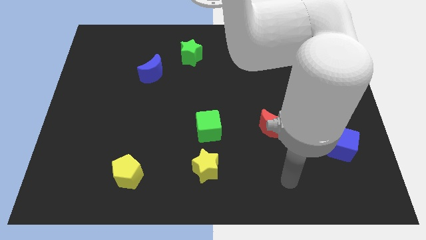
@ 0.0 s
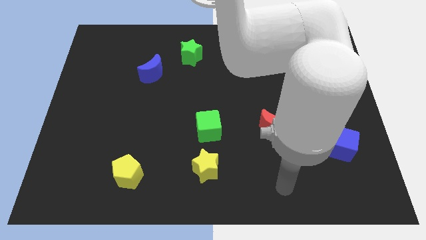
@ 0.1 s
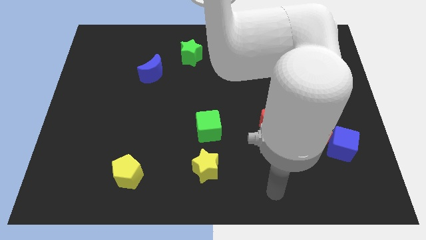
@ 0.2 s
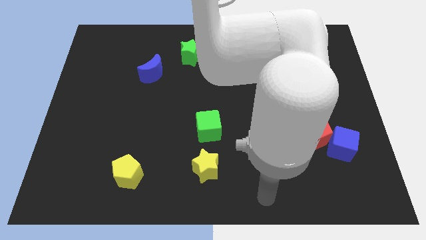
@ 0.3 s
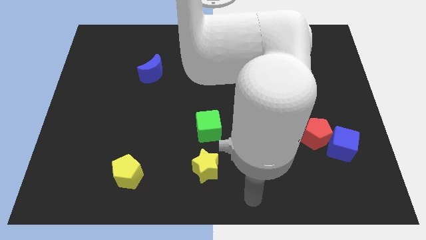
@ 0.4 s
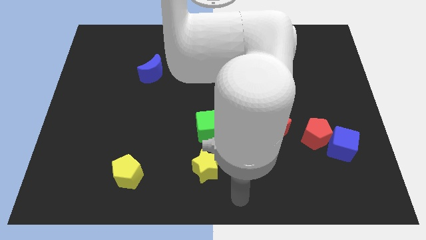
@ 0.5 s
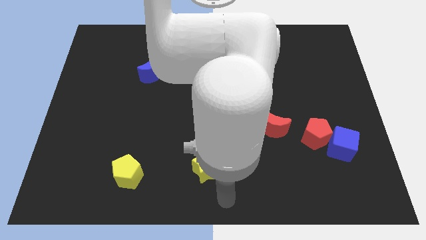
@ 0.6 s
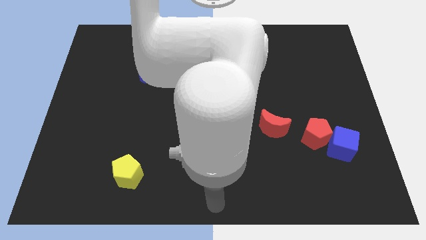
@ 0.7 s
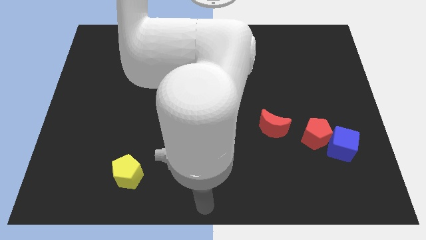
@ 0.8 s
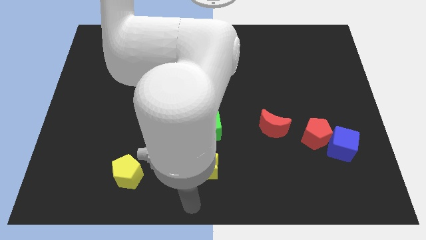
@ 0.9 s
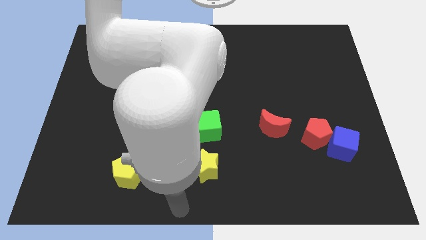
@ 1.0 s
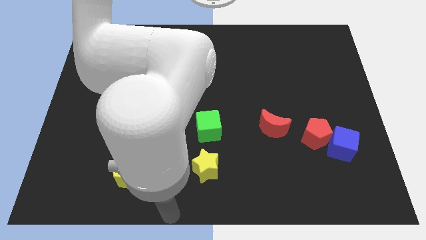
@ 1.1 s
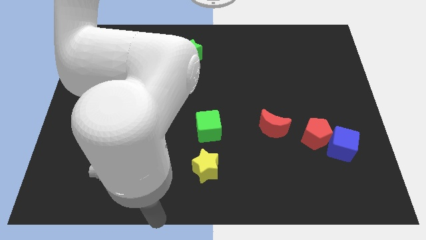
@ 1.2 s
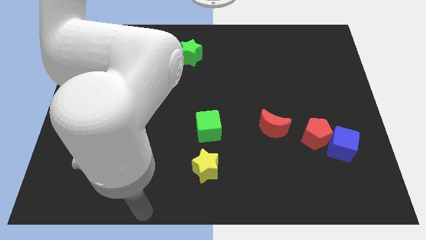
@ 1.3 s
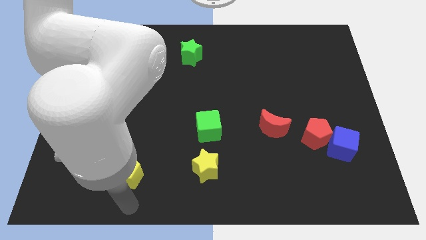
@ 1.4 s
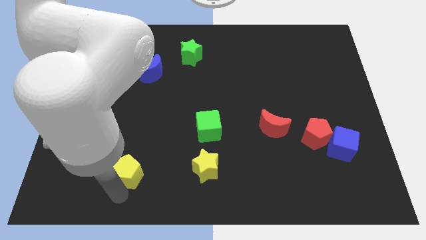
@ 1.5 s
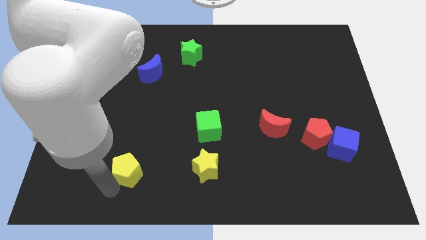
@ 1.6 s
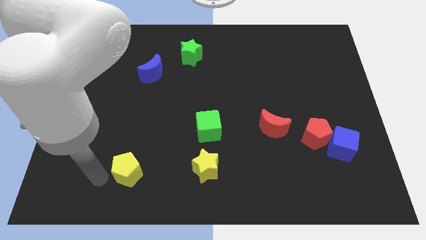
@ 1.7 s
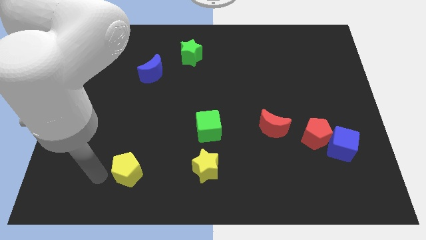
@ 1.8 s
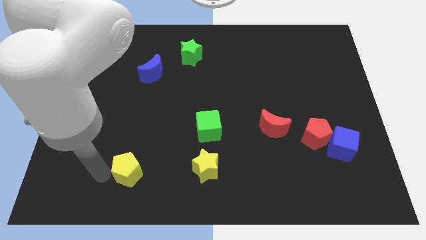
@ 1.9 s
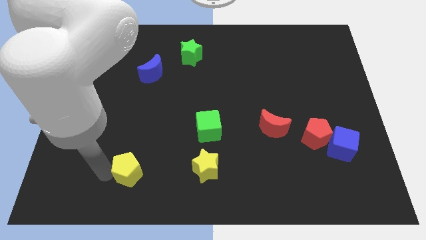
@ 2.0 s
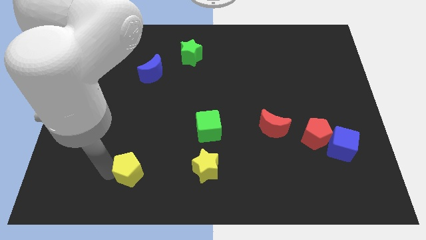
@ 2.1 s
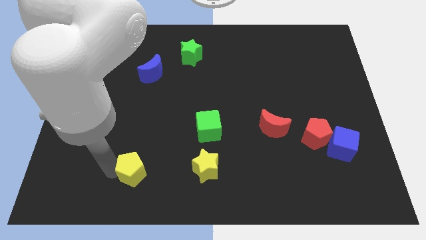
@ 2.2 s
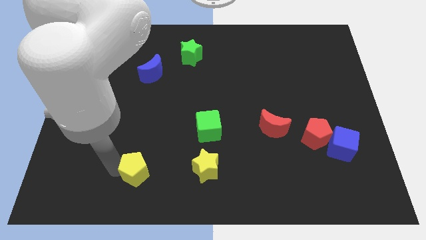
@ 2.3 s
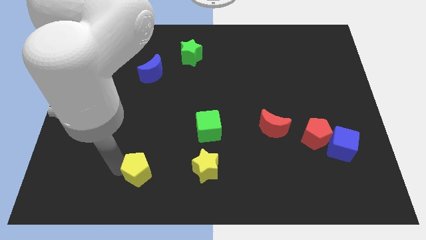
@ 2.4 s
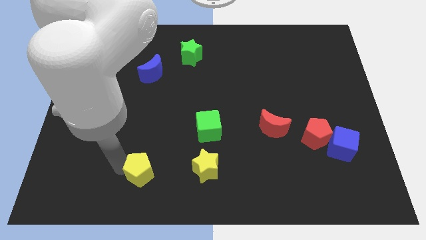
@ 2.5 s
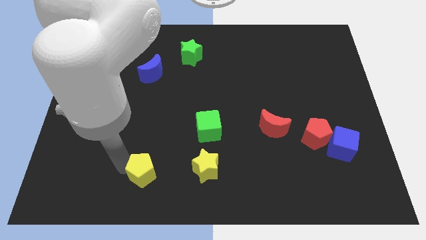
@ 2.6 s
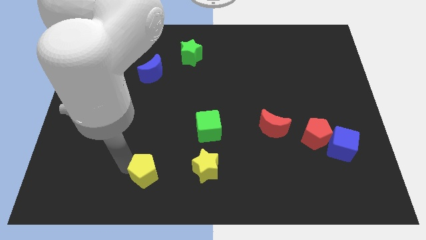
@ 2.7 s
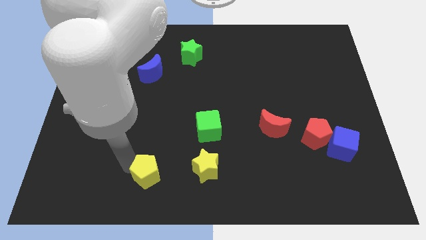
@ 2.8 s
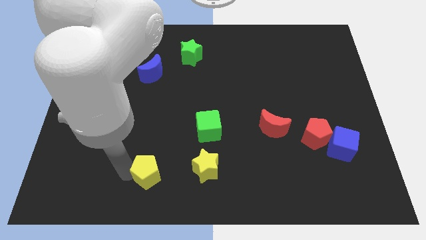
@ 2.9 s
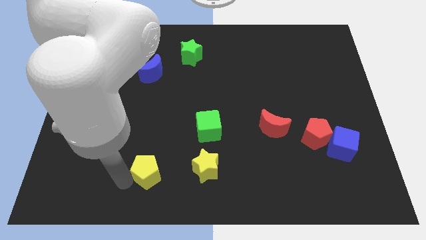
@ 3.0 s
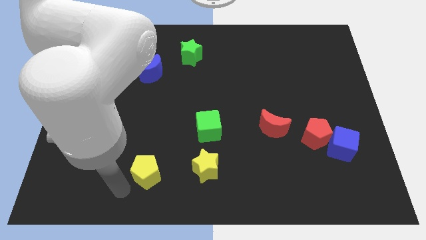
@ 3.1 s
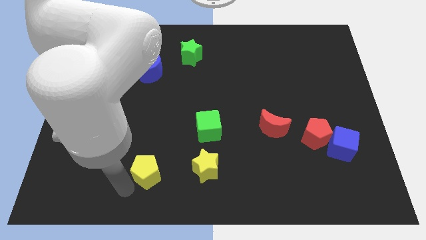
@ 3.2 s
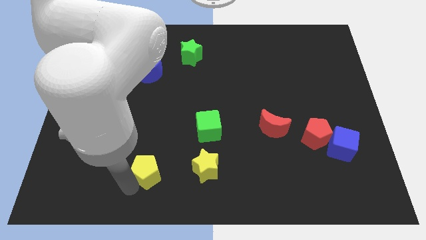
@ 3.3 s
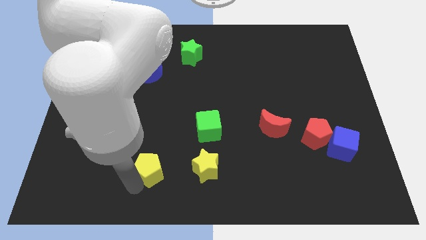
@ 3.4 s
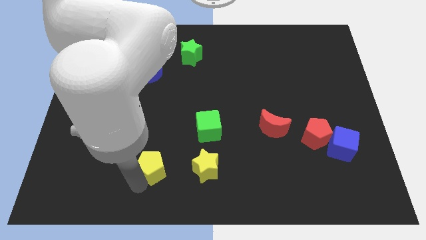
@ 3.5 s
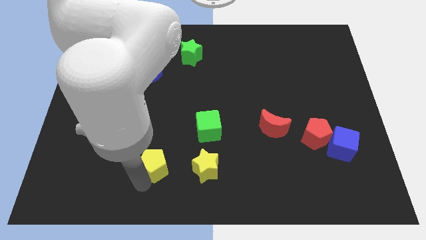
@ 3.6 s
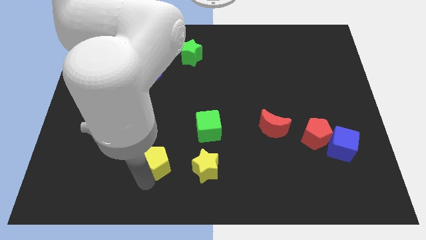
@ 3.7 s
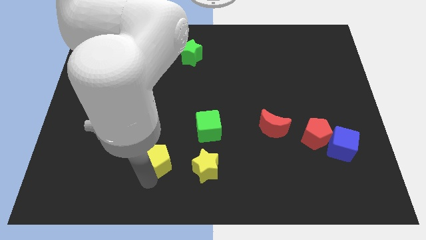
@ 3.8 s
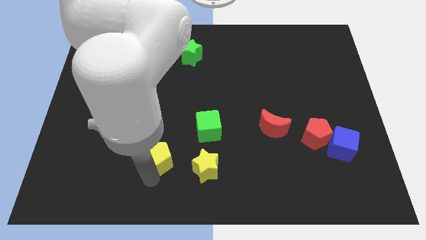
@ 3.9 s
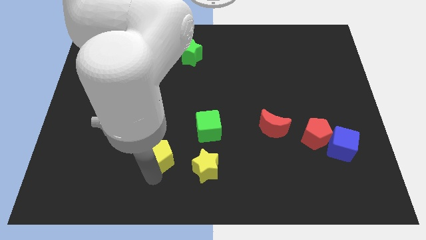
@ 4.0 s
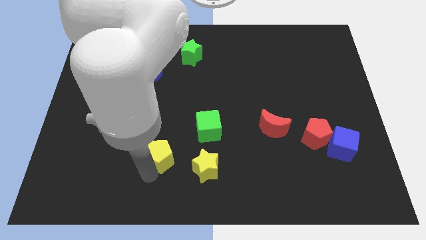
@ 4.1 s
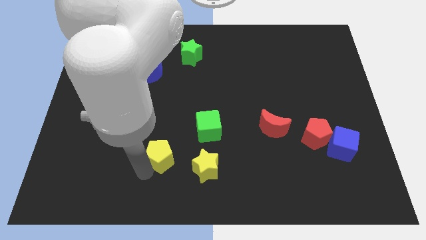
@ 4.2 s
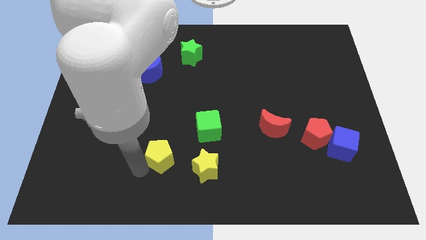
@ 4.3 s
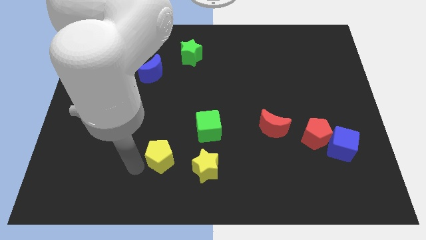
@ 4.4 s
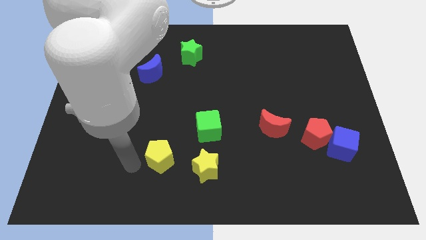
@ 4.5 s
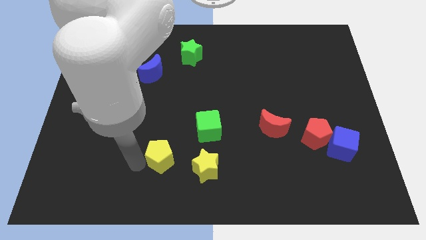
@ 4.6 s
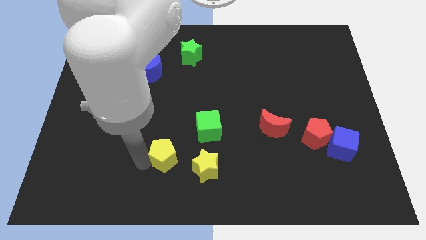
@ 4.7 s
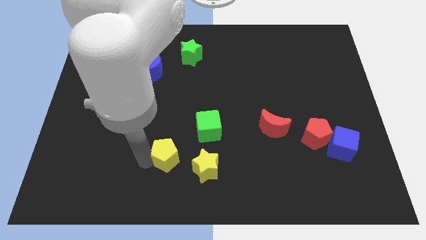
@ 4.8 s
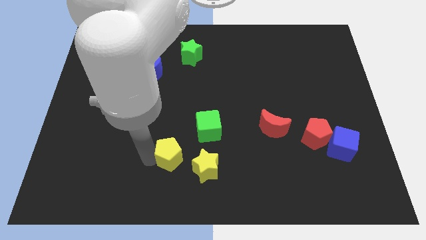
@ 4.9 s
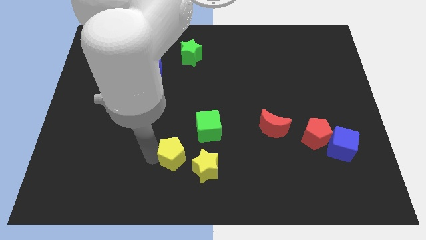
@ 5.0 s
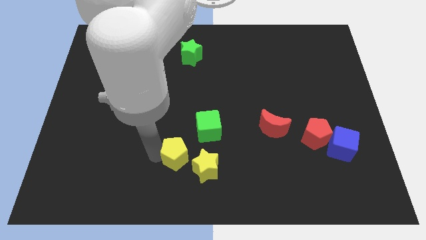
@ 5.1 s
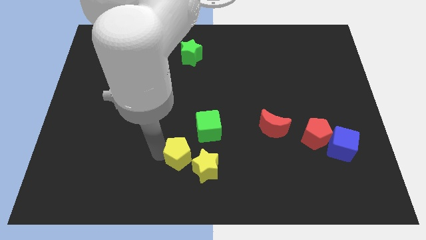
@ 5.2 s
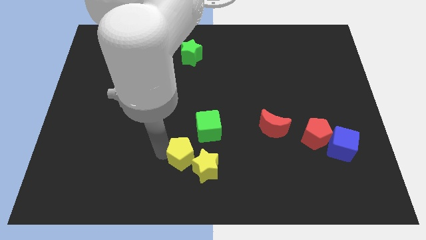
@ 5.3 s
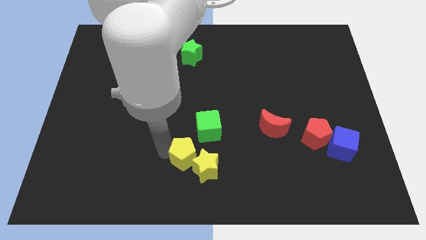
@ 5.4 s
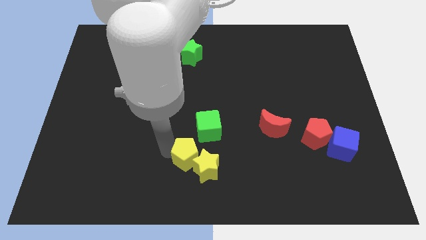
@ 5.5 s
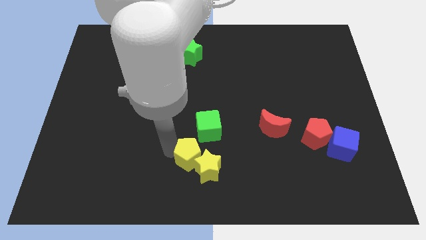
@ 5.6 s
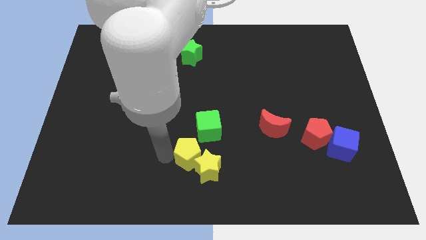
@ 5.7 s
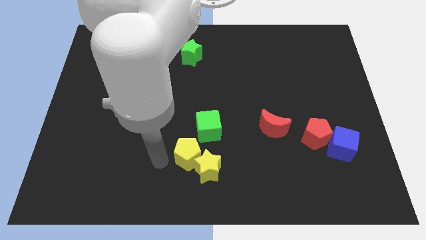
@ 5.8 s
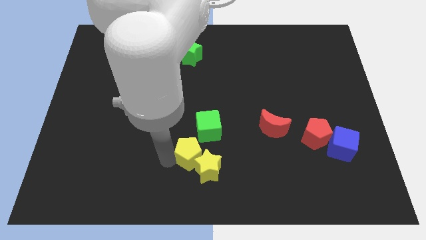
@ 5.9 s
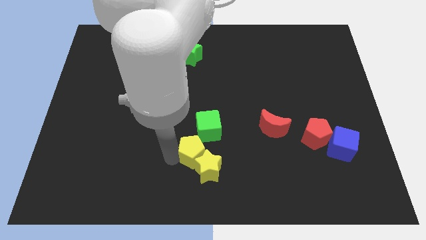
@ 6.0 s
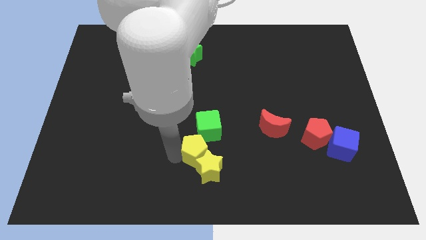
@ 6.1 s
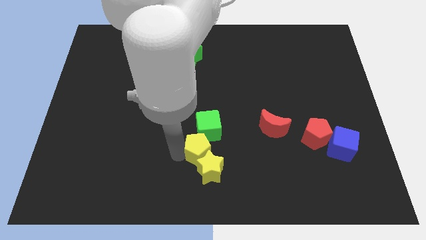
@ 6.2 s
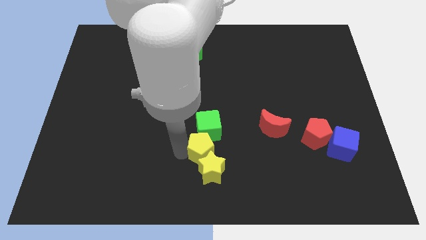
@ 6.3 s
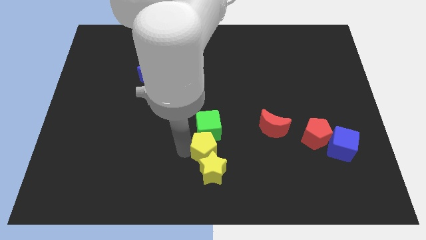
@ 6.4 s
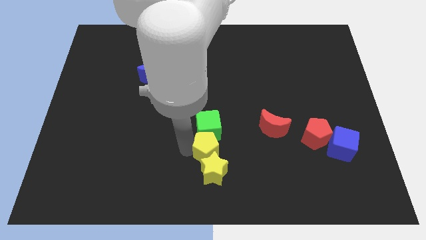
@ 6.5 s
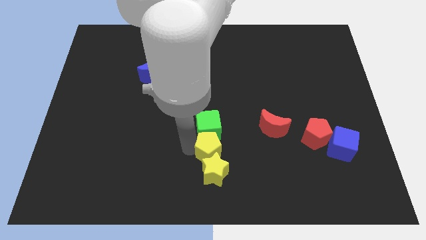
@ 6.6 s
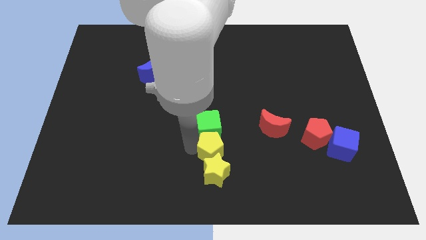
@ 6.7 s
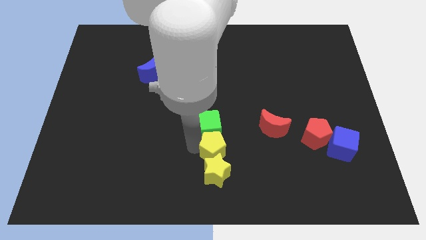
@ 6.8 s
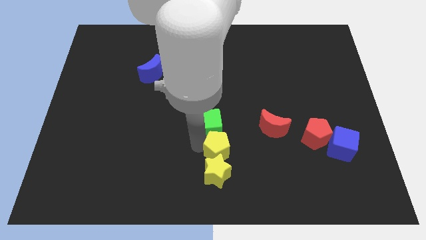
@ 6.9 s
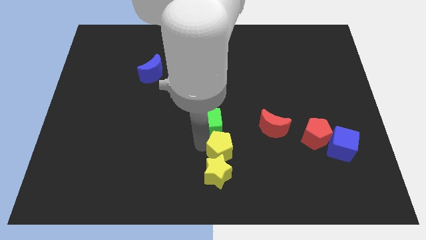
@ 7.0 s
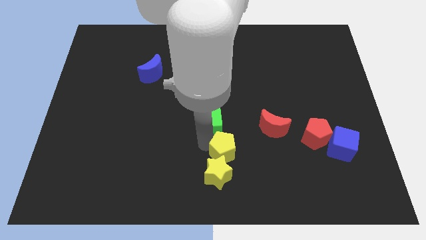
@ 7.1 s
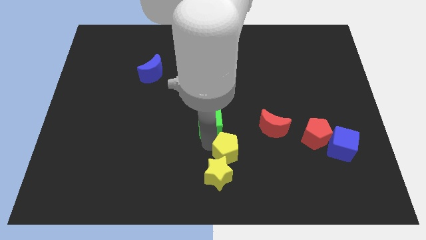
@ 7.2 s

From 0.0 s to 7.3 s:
slide the yellow pentagon to the bottom left of the red moon
